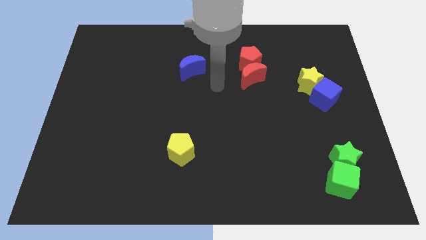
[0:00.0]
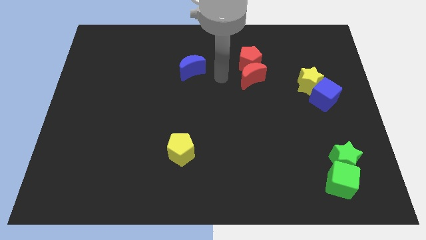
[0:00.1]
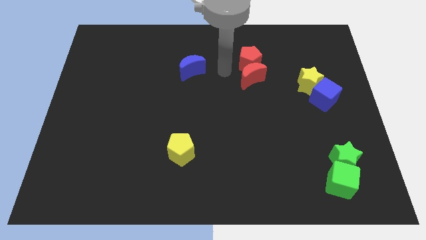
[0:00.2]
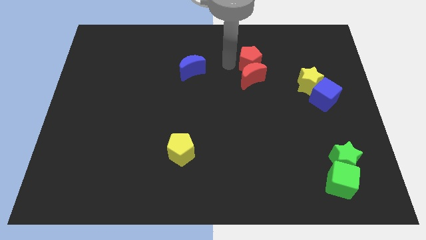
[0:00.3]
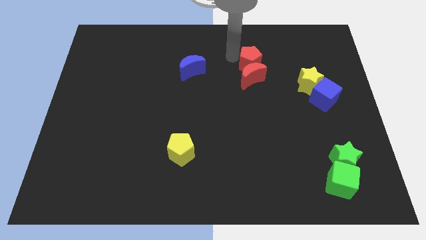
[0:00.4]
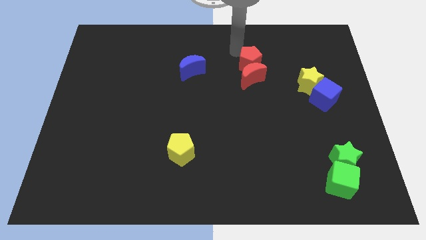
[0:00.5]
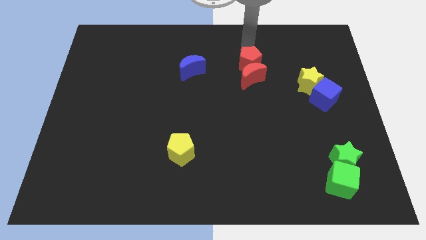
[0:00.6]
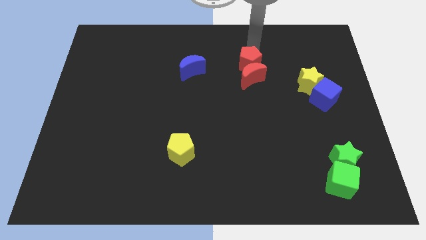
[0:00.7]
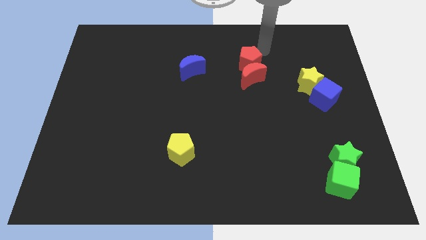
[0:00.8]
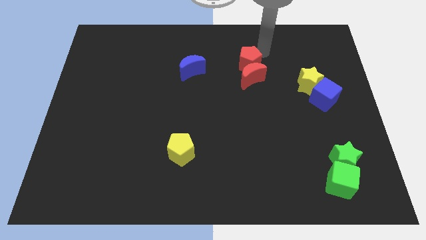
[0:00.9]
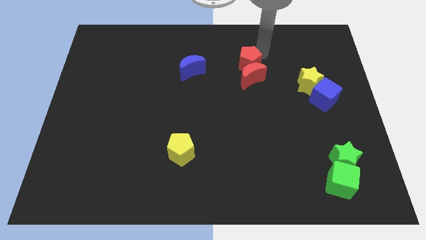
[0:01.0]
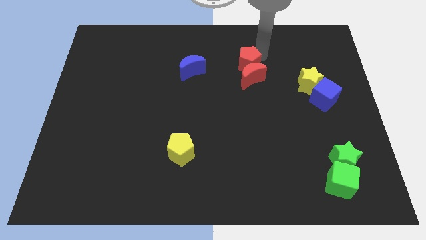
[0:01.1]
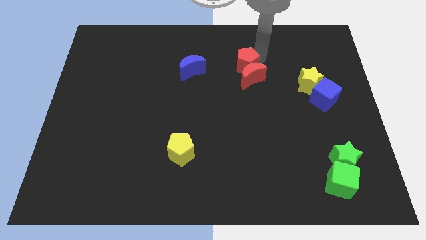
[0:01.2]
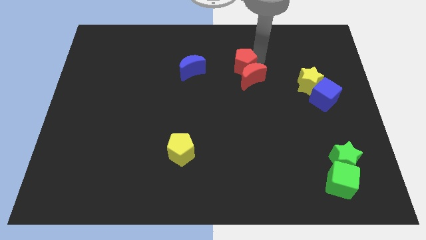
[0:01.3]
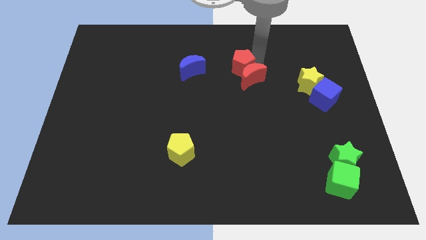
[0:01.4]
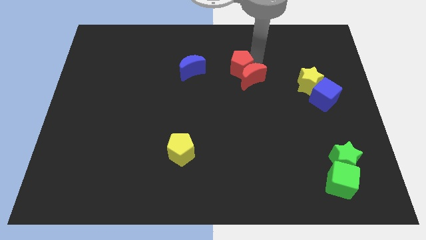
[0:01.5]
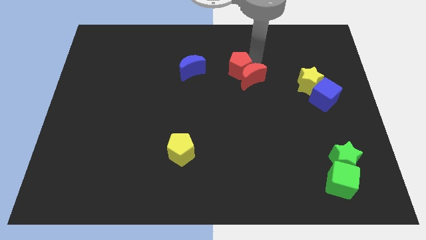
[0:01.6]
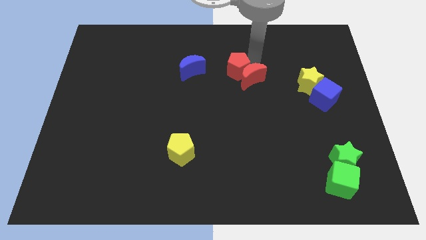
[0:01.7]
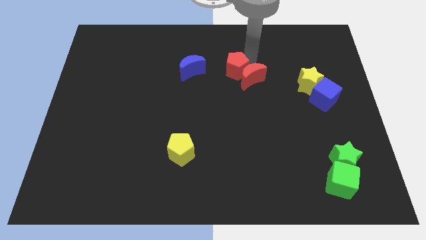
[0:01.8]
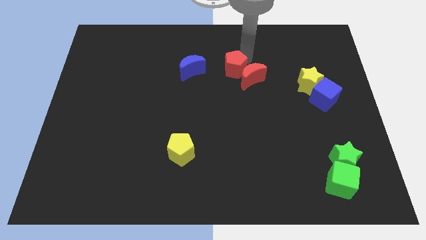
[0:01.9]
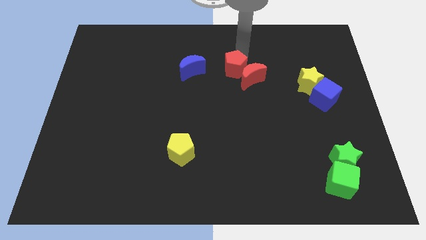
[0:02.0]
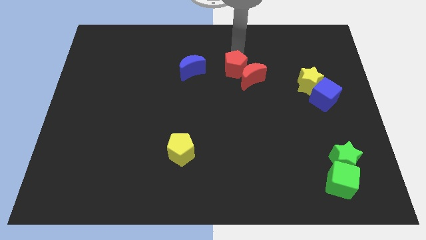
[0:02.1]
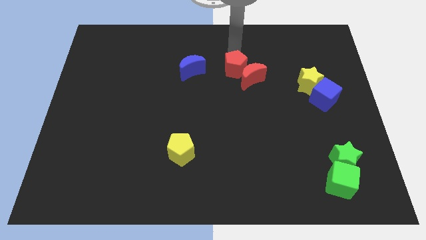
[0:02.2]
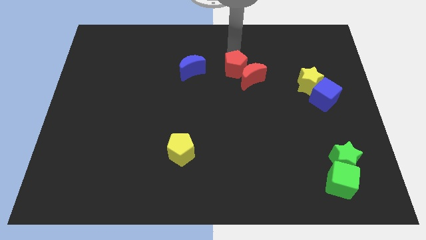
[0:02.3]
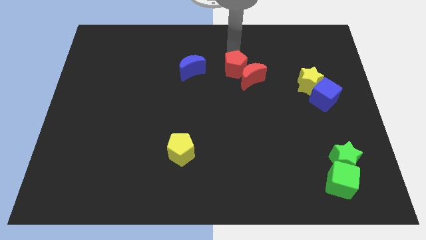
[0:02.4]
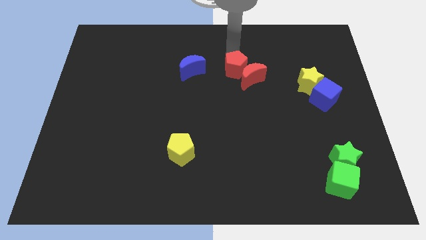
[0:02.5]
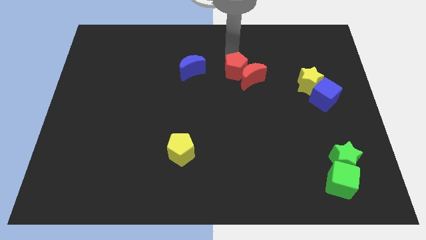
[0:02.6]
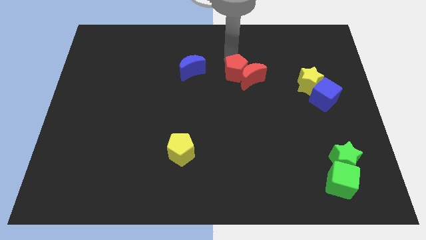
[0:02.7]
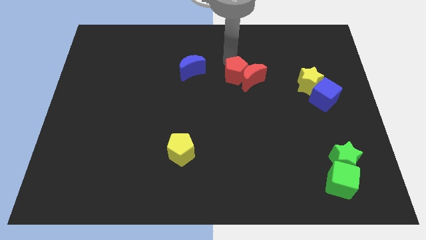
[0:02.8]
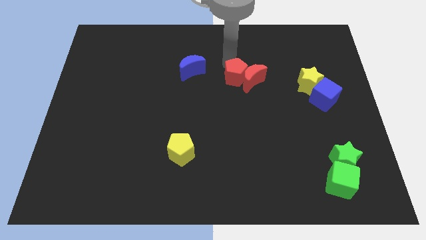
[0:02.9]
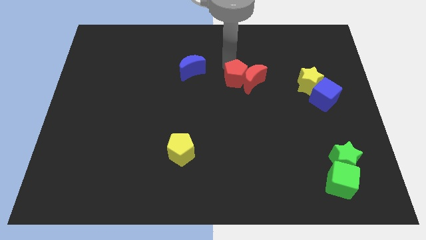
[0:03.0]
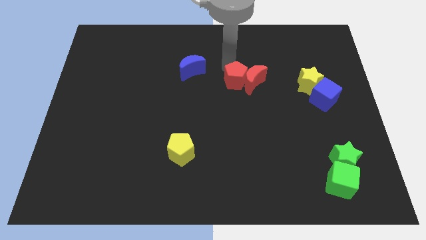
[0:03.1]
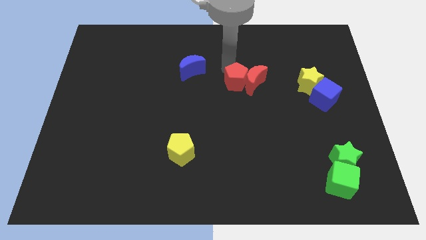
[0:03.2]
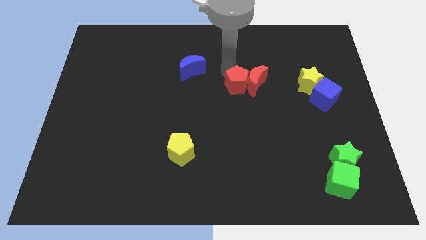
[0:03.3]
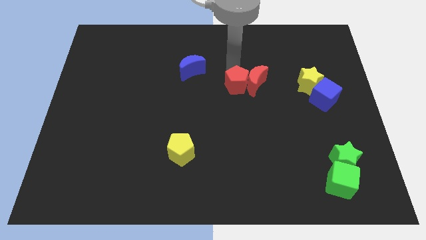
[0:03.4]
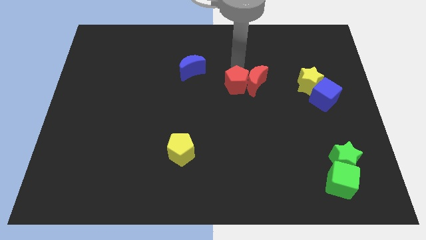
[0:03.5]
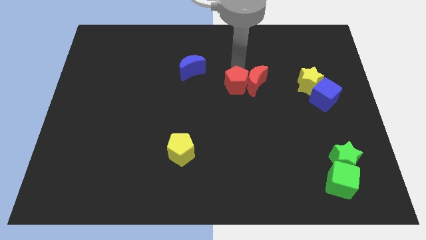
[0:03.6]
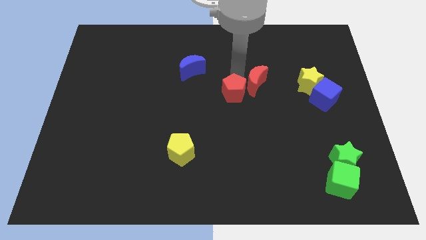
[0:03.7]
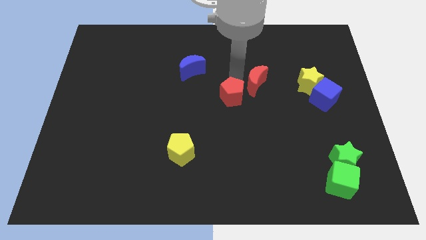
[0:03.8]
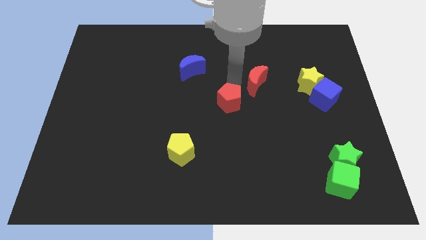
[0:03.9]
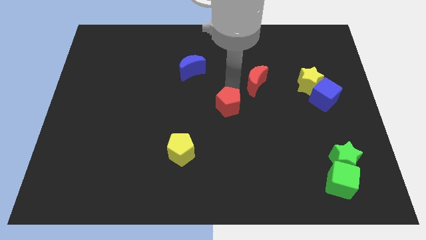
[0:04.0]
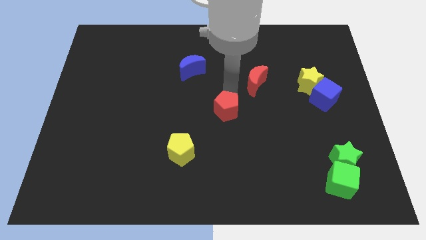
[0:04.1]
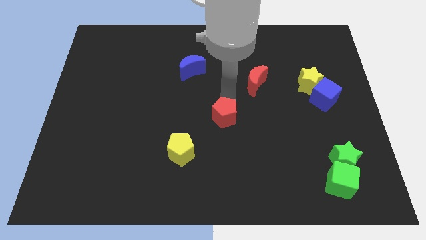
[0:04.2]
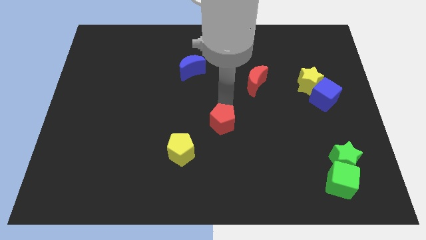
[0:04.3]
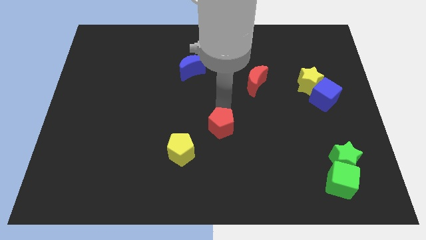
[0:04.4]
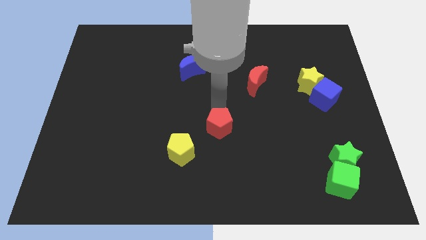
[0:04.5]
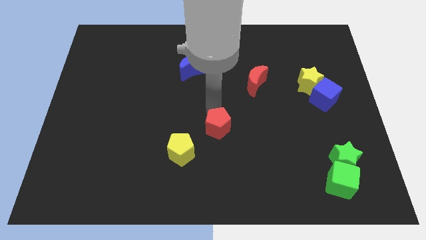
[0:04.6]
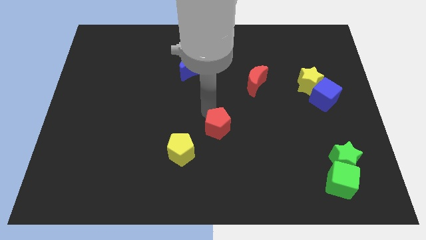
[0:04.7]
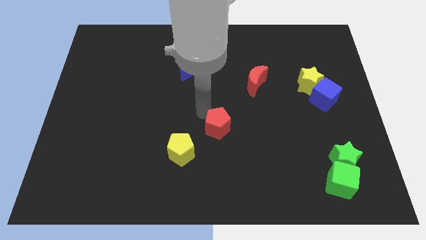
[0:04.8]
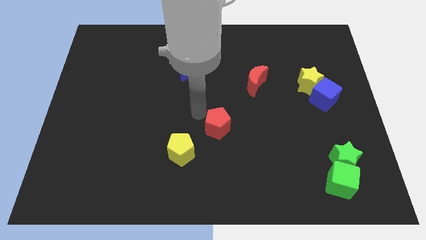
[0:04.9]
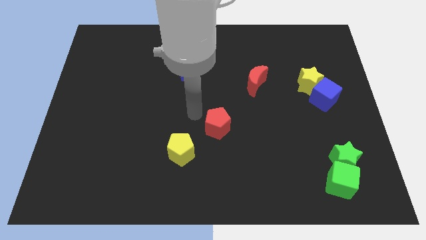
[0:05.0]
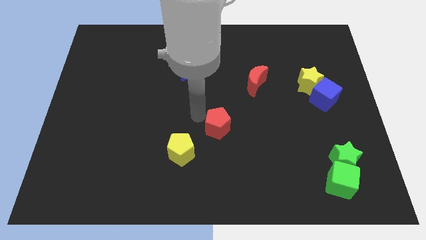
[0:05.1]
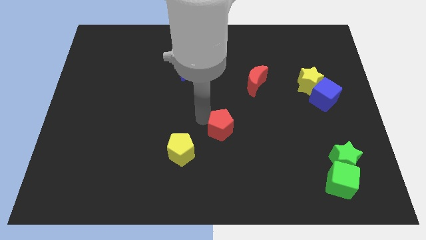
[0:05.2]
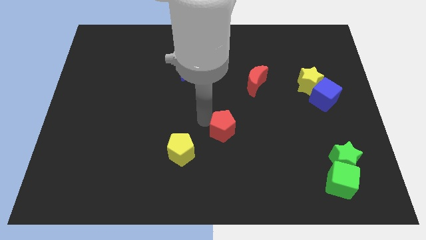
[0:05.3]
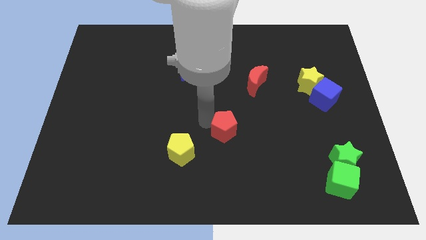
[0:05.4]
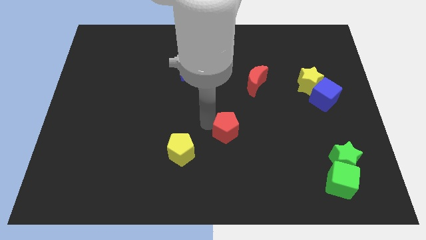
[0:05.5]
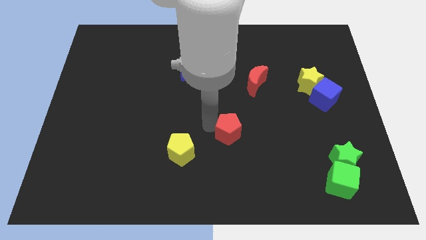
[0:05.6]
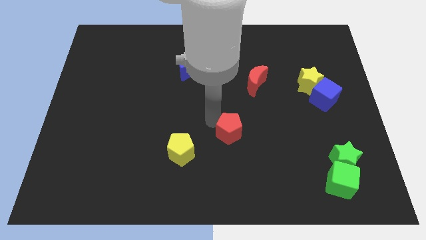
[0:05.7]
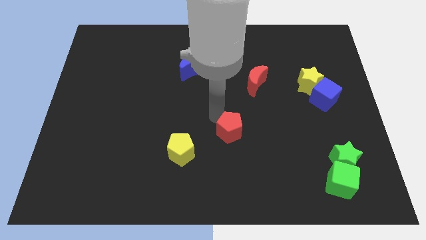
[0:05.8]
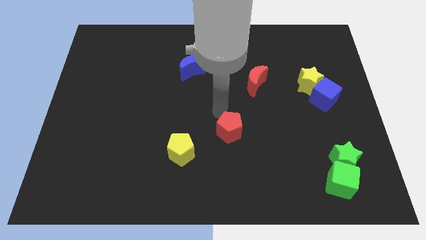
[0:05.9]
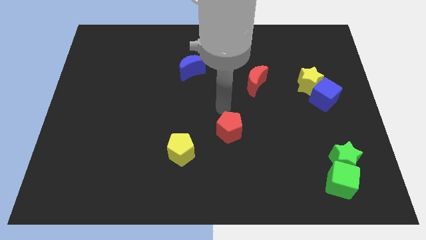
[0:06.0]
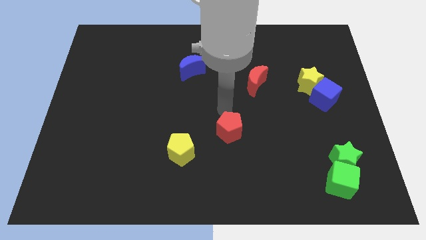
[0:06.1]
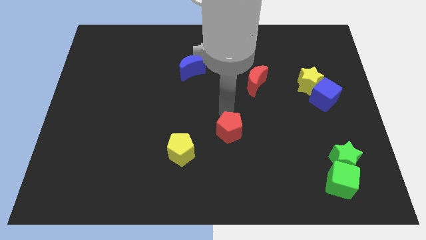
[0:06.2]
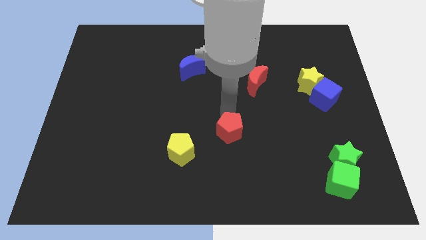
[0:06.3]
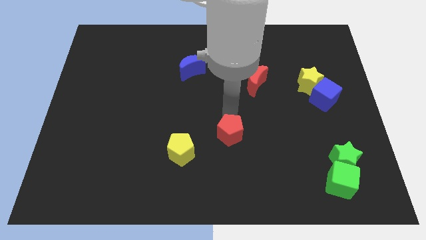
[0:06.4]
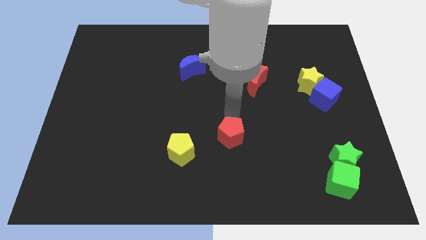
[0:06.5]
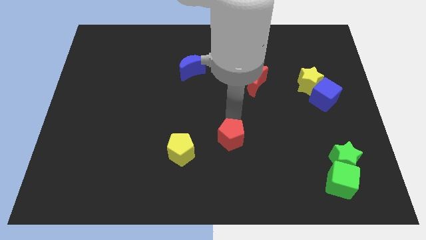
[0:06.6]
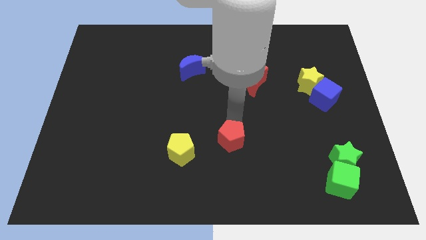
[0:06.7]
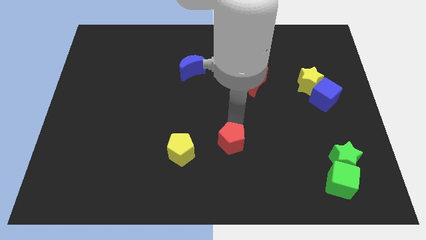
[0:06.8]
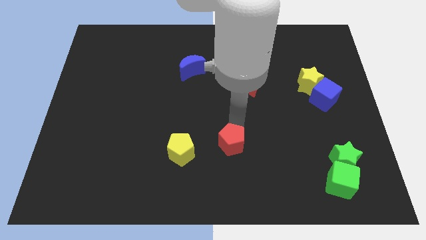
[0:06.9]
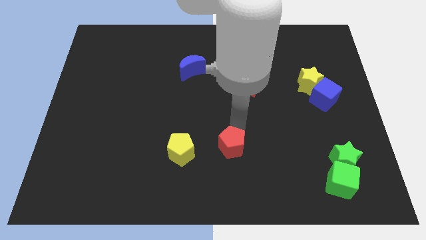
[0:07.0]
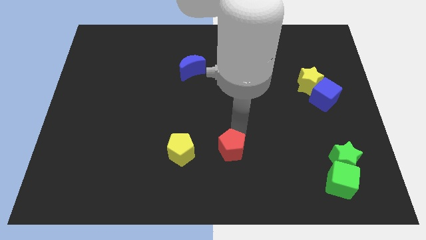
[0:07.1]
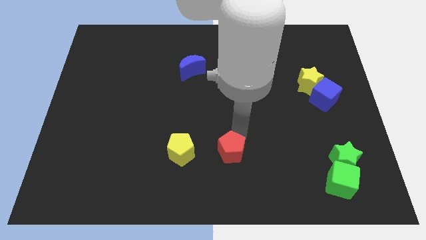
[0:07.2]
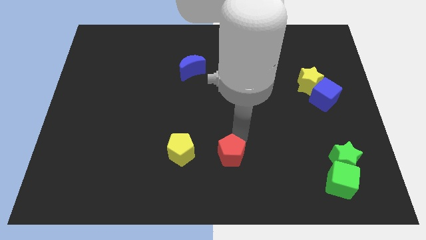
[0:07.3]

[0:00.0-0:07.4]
push the red pentagon to the bottom side
